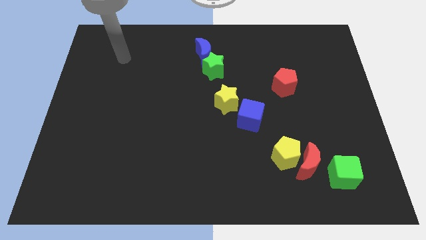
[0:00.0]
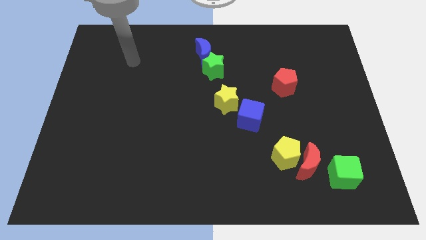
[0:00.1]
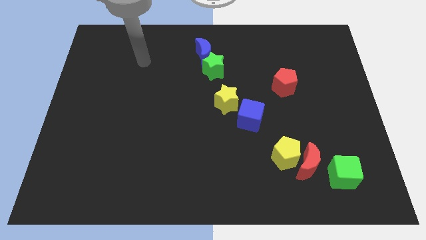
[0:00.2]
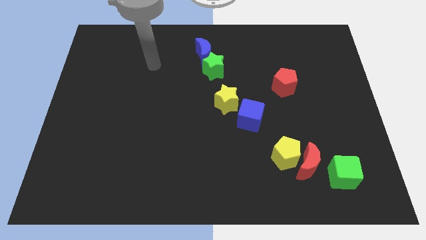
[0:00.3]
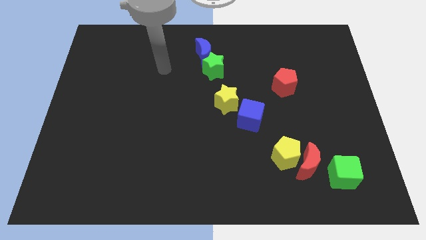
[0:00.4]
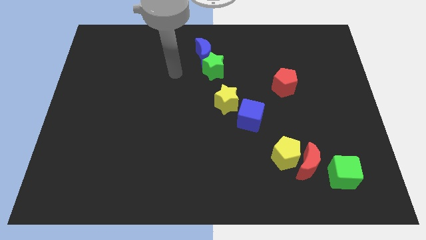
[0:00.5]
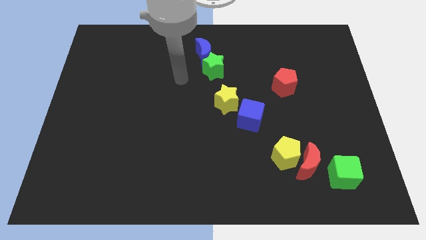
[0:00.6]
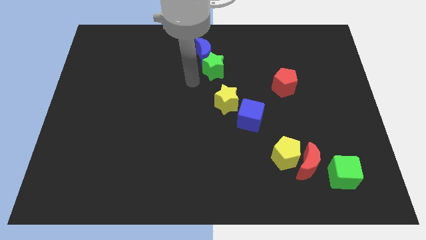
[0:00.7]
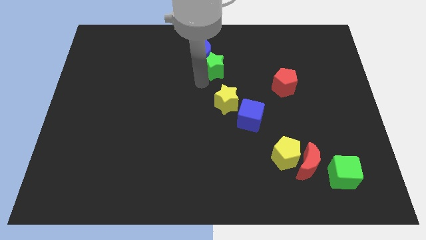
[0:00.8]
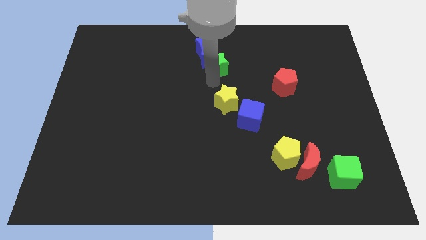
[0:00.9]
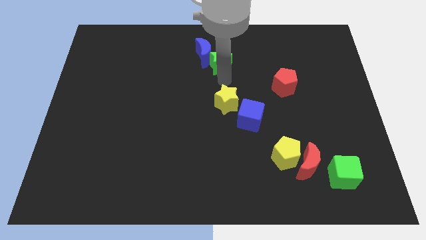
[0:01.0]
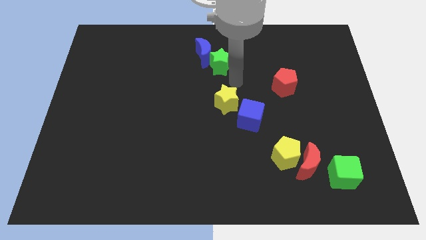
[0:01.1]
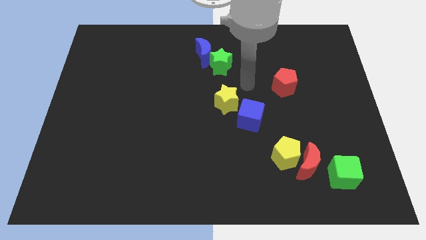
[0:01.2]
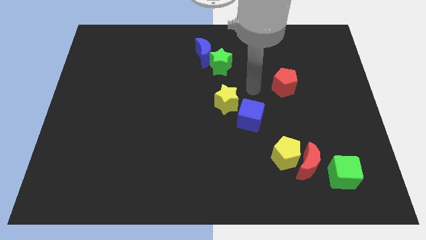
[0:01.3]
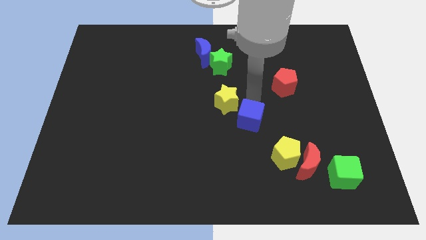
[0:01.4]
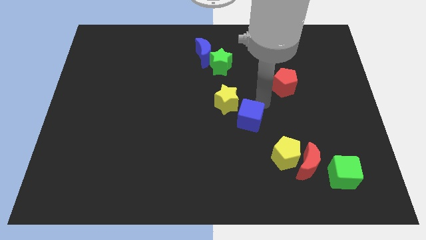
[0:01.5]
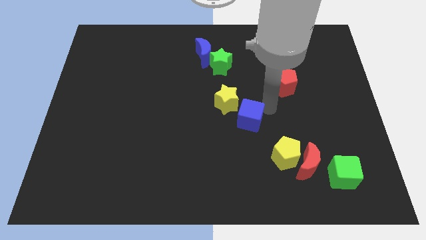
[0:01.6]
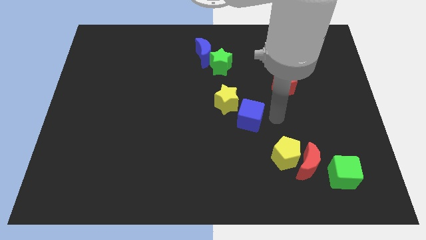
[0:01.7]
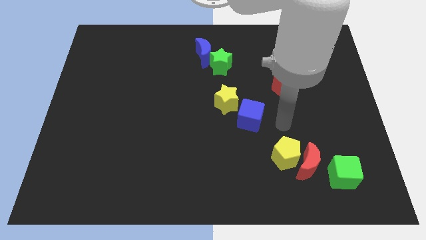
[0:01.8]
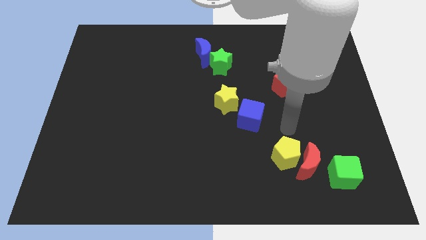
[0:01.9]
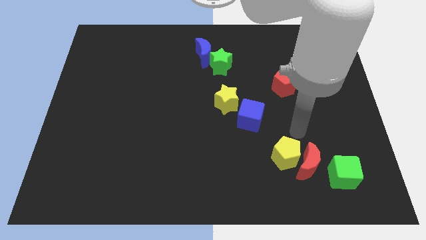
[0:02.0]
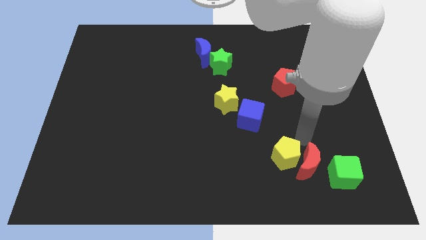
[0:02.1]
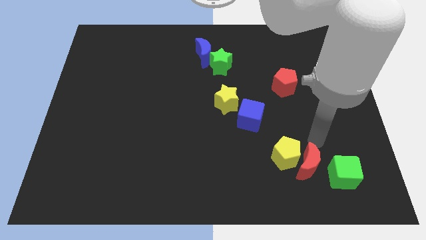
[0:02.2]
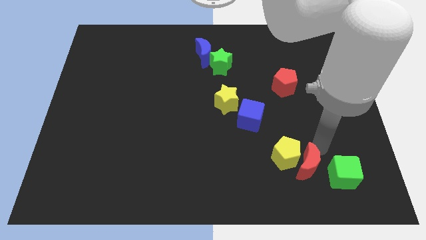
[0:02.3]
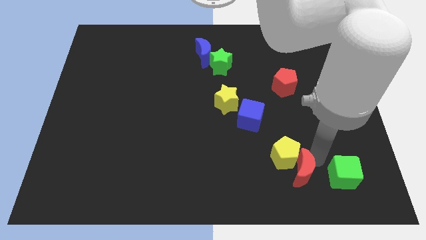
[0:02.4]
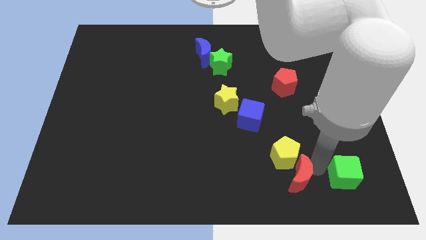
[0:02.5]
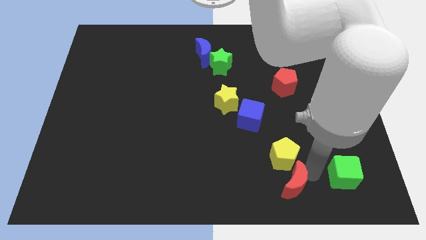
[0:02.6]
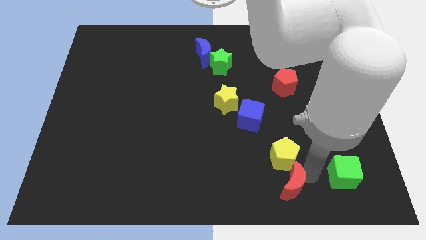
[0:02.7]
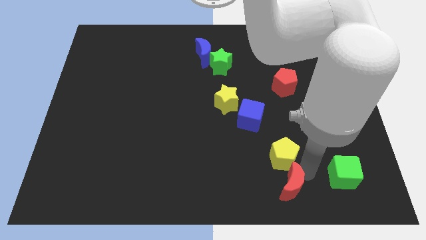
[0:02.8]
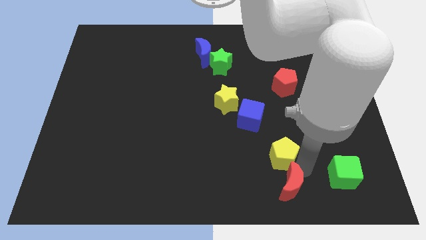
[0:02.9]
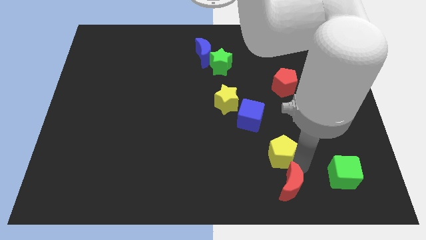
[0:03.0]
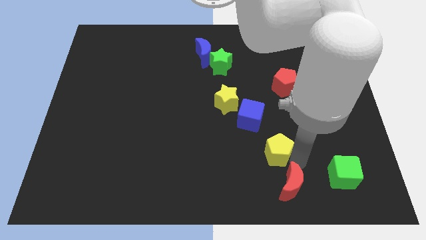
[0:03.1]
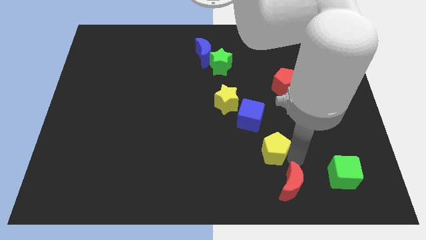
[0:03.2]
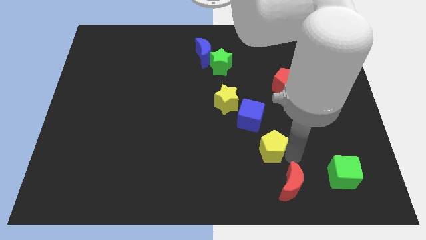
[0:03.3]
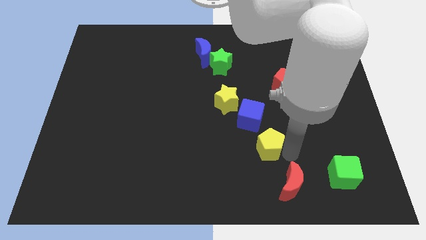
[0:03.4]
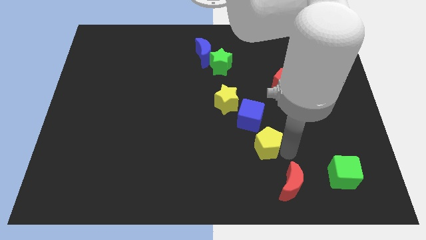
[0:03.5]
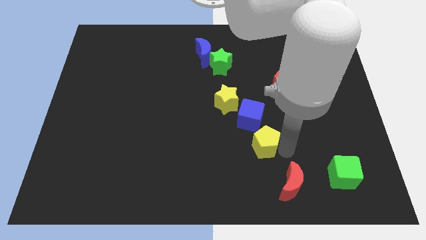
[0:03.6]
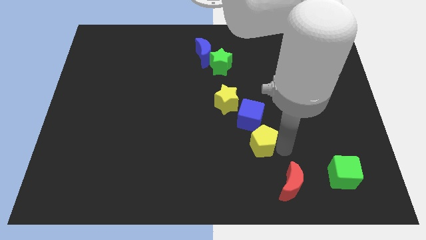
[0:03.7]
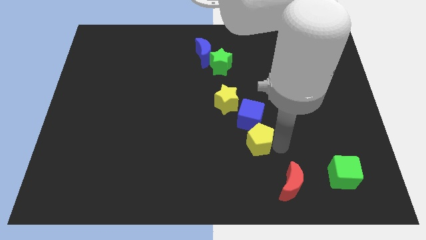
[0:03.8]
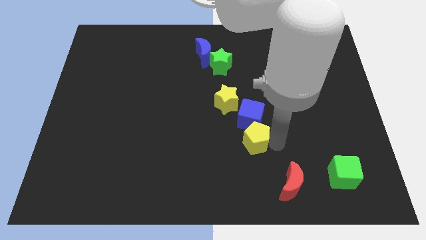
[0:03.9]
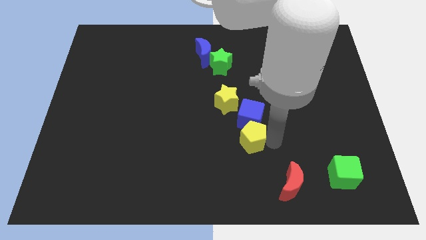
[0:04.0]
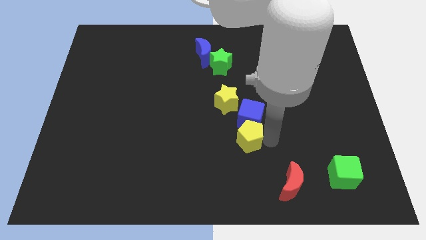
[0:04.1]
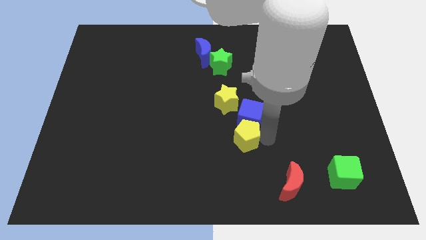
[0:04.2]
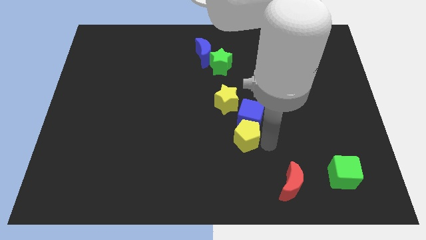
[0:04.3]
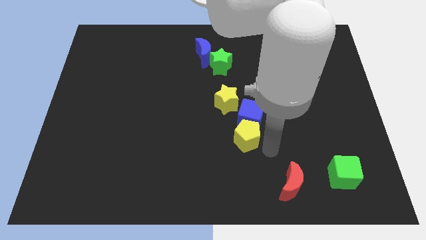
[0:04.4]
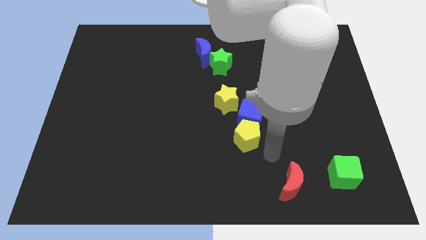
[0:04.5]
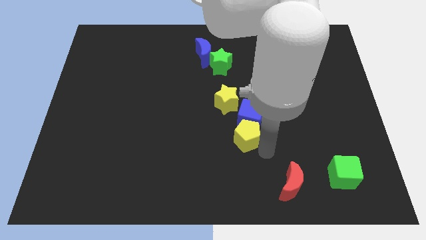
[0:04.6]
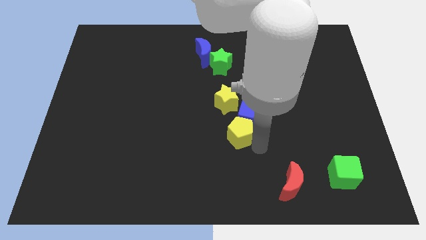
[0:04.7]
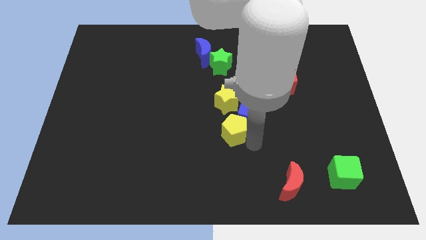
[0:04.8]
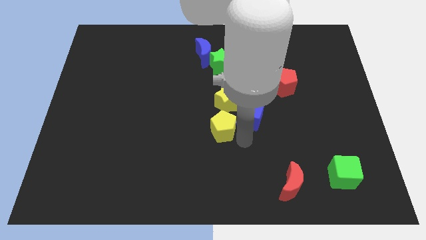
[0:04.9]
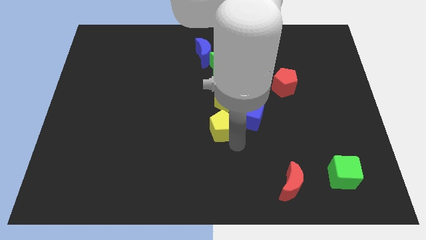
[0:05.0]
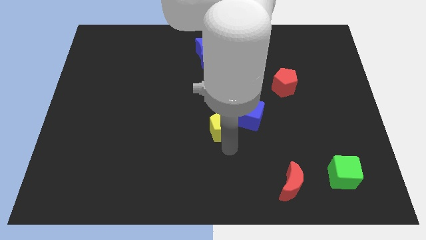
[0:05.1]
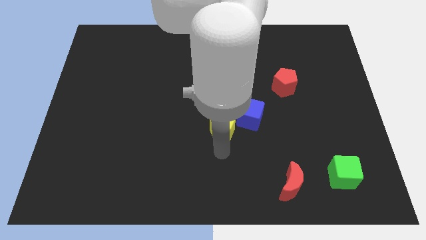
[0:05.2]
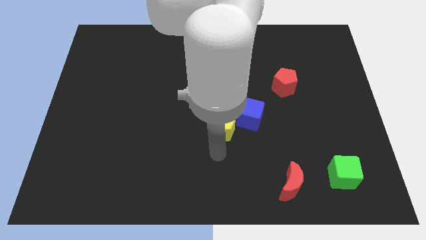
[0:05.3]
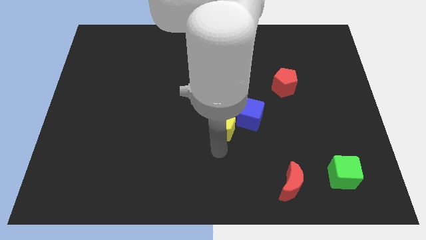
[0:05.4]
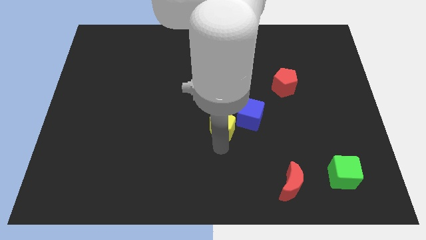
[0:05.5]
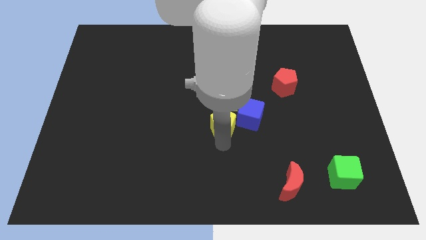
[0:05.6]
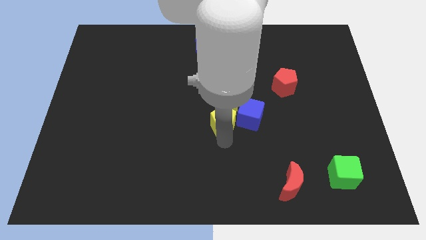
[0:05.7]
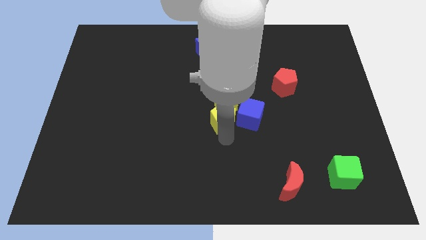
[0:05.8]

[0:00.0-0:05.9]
slide the yellow pentagon close to the yellow star
